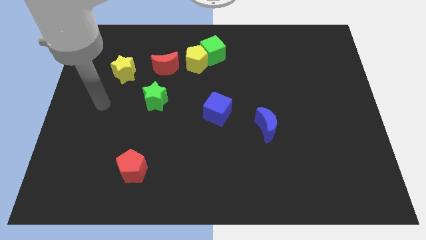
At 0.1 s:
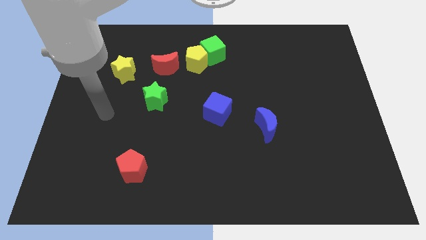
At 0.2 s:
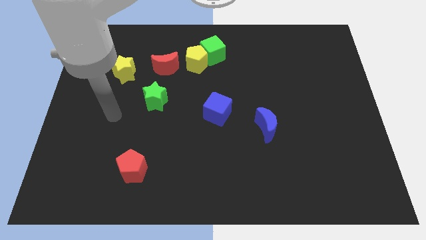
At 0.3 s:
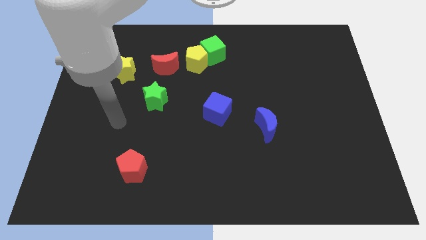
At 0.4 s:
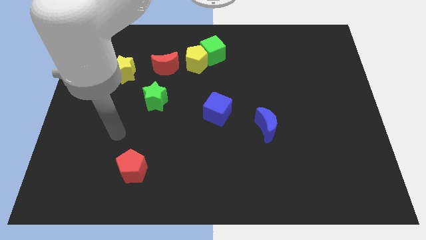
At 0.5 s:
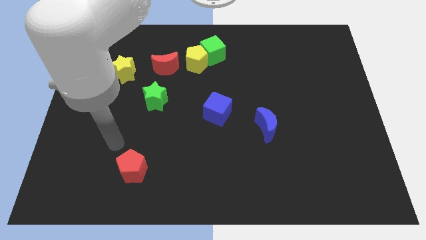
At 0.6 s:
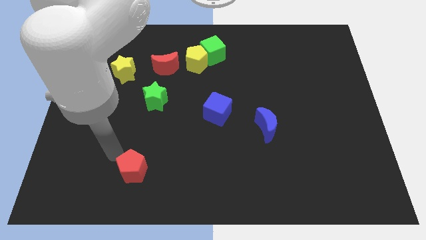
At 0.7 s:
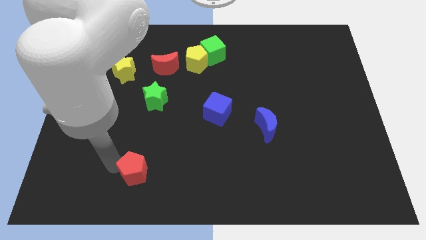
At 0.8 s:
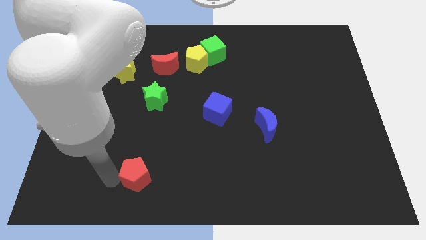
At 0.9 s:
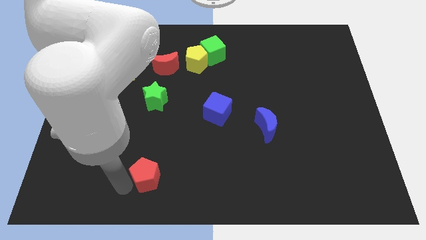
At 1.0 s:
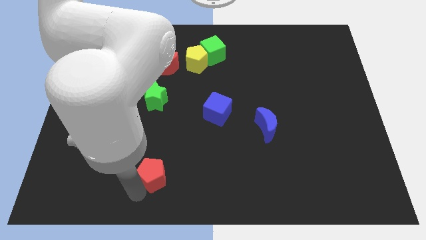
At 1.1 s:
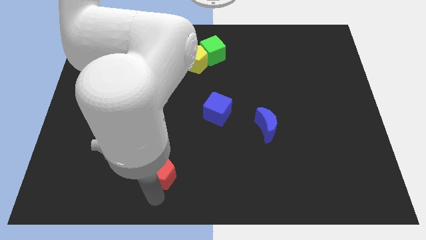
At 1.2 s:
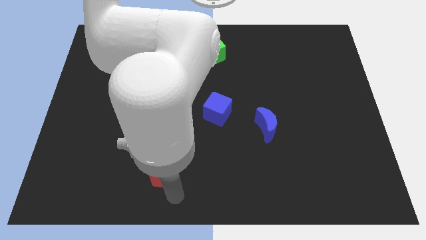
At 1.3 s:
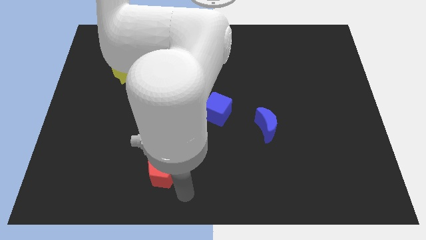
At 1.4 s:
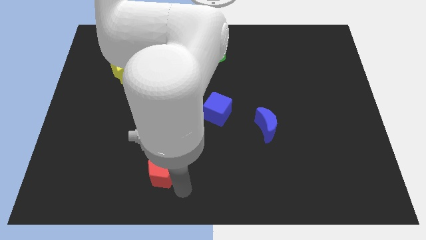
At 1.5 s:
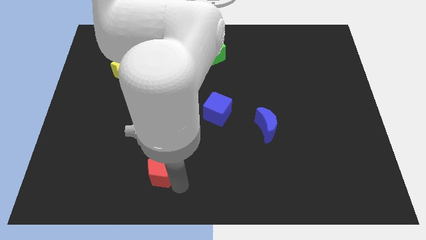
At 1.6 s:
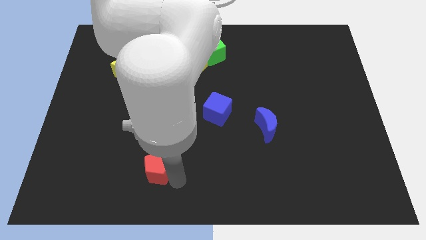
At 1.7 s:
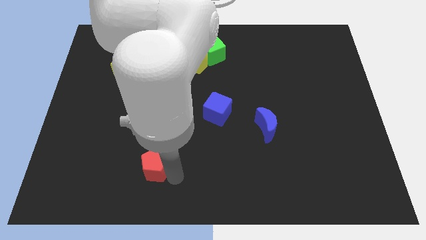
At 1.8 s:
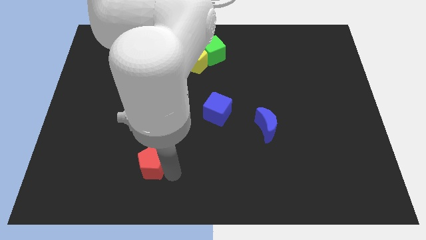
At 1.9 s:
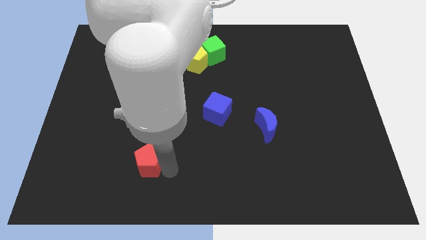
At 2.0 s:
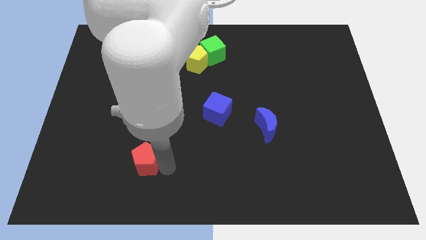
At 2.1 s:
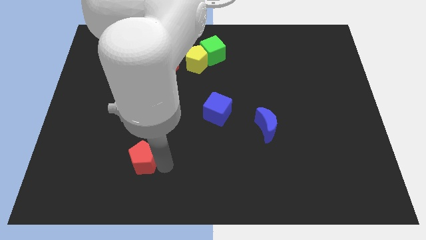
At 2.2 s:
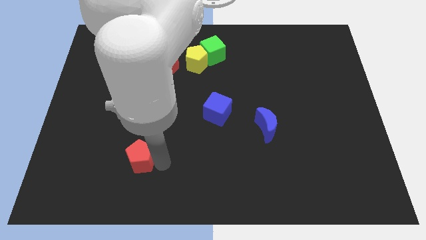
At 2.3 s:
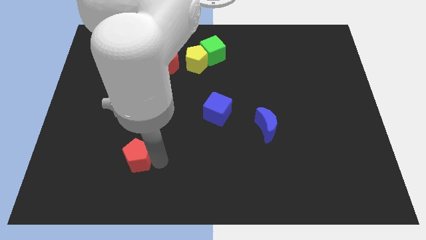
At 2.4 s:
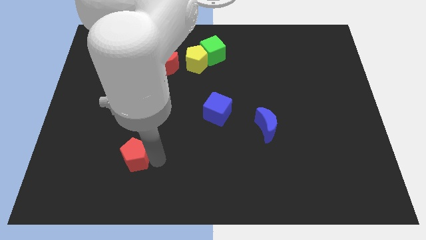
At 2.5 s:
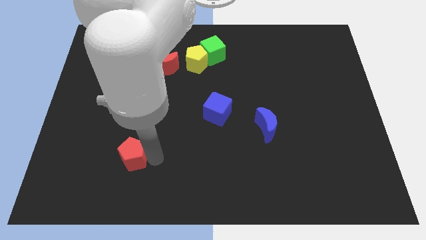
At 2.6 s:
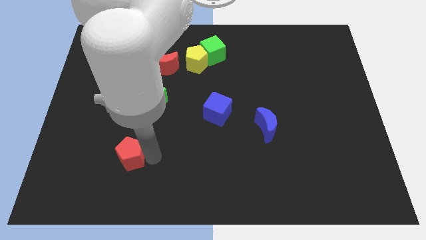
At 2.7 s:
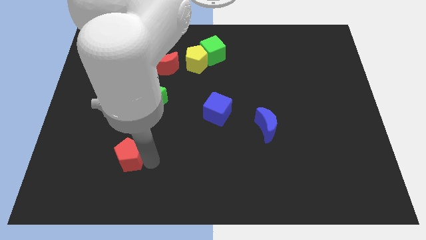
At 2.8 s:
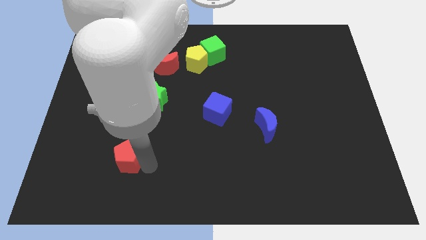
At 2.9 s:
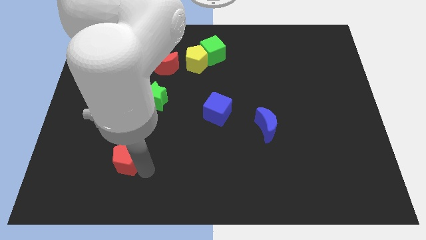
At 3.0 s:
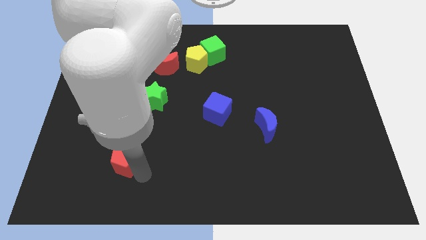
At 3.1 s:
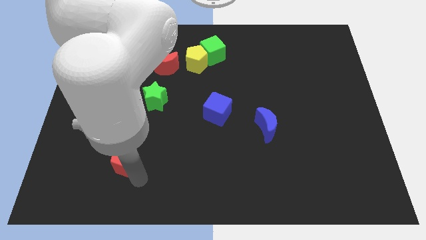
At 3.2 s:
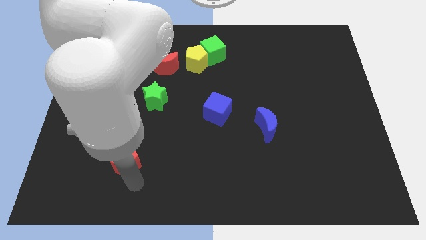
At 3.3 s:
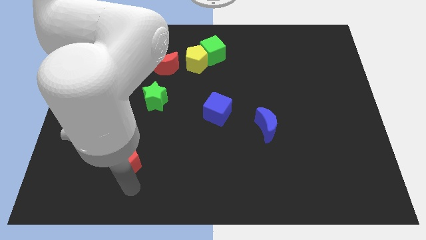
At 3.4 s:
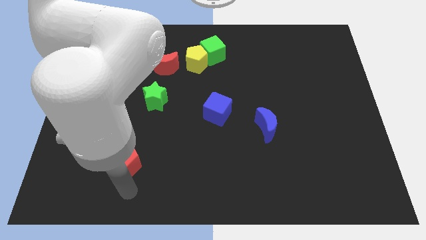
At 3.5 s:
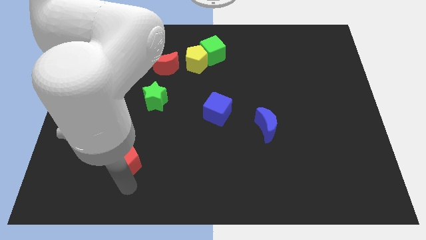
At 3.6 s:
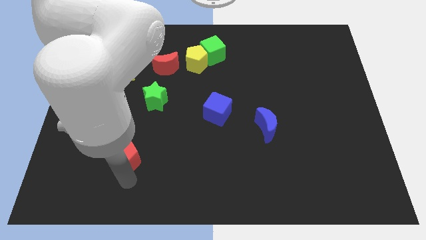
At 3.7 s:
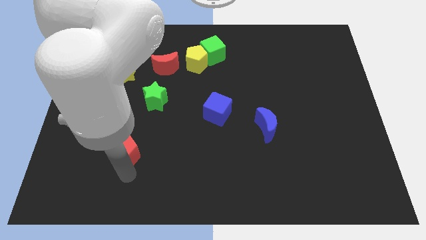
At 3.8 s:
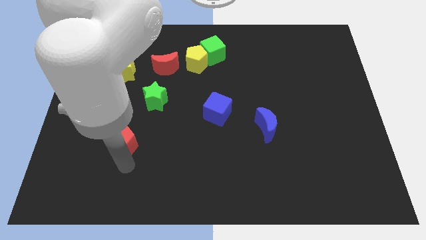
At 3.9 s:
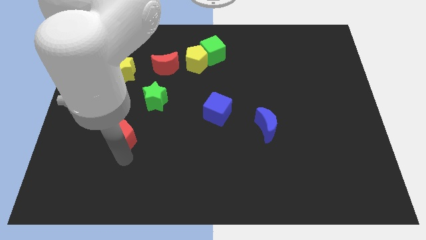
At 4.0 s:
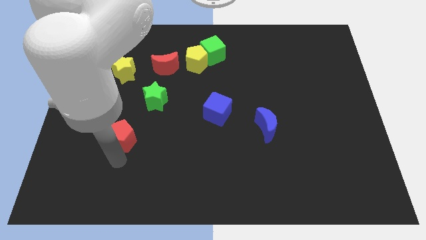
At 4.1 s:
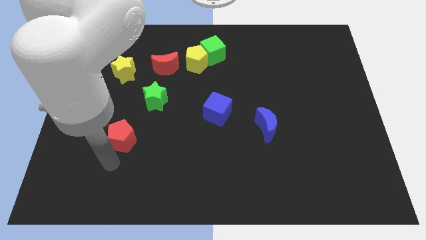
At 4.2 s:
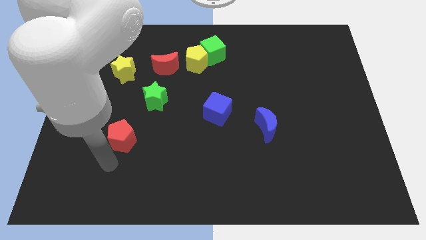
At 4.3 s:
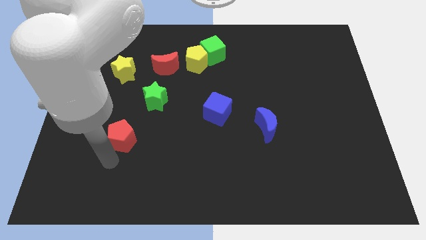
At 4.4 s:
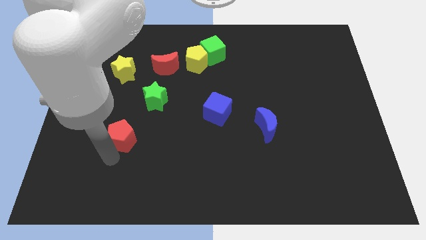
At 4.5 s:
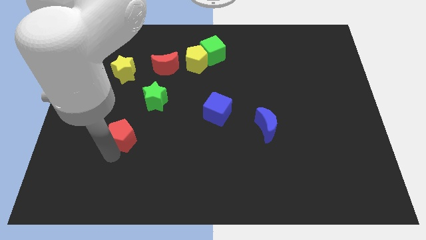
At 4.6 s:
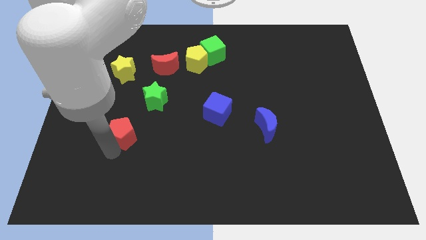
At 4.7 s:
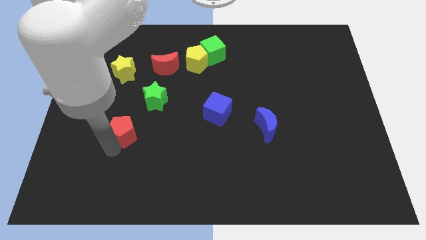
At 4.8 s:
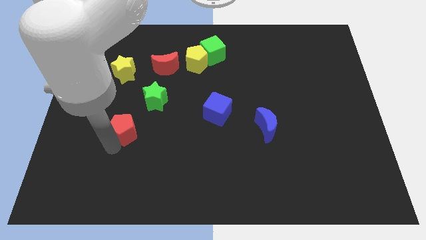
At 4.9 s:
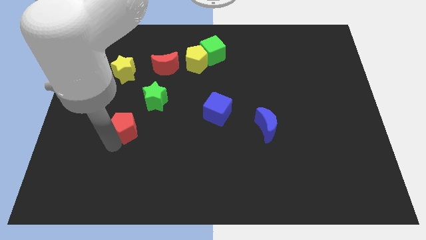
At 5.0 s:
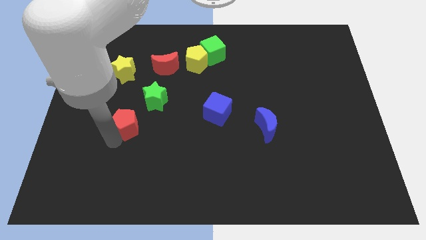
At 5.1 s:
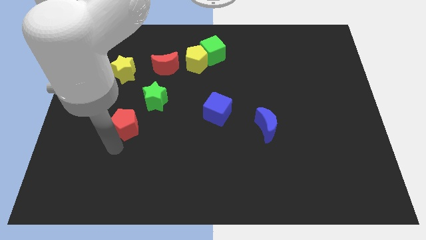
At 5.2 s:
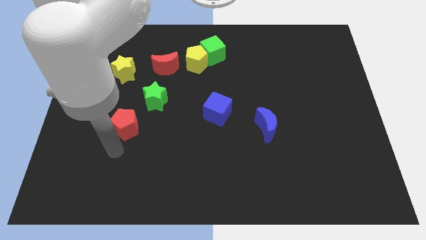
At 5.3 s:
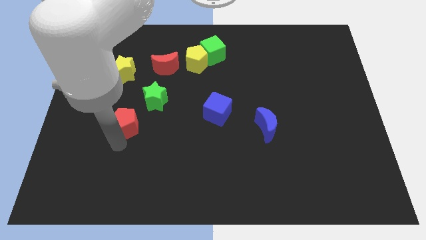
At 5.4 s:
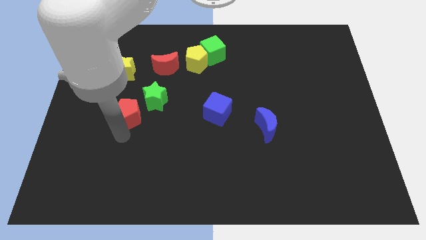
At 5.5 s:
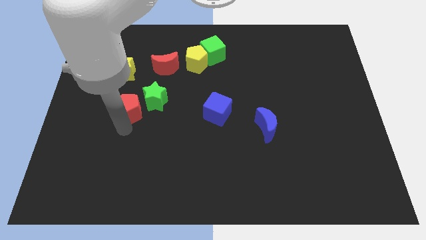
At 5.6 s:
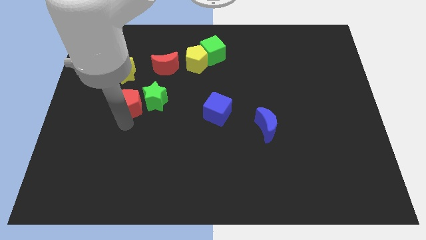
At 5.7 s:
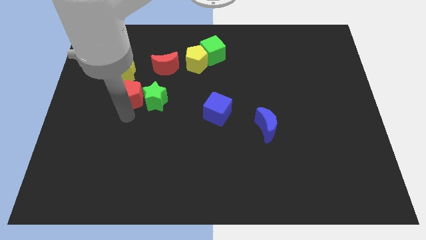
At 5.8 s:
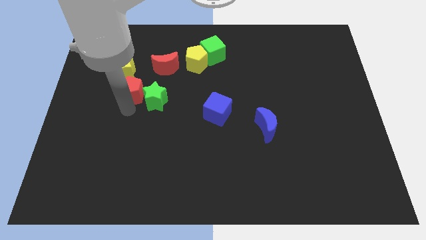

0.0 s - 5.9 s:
push the red pentagon upwards

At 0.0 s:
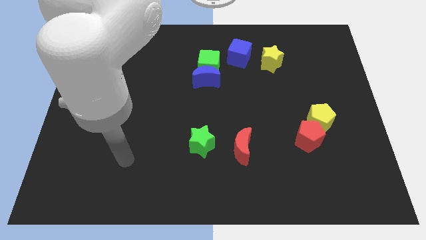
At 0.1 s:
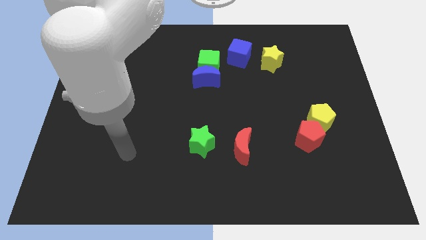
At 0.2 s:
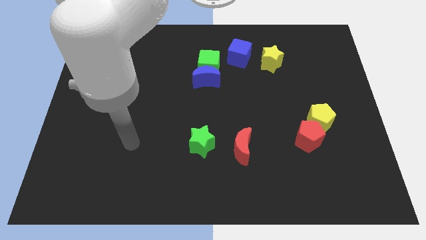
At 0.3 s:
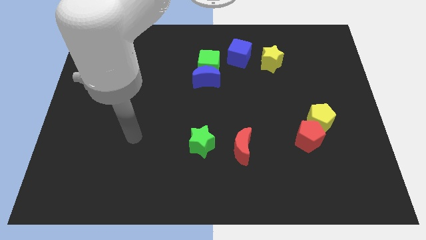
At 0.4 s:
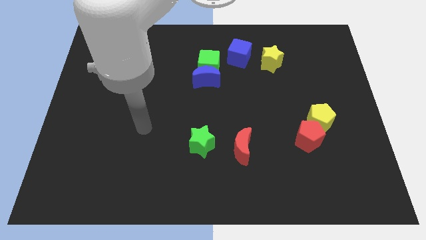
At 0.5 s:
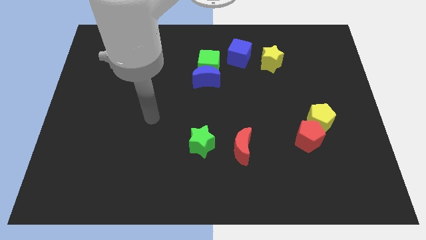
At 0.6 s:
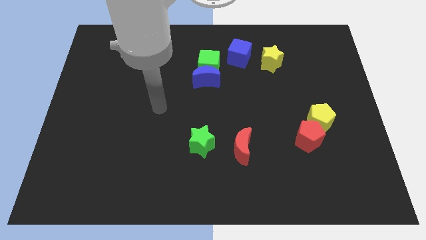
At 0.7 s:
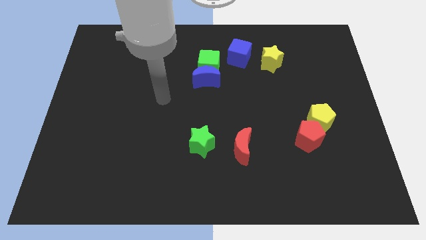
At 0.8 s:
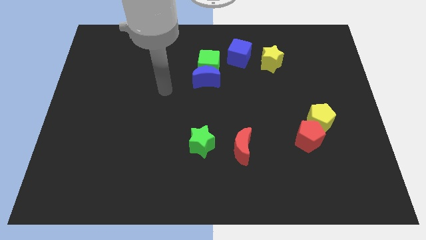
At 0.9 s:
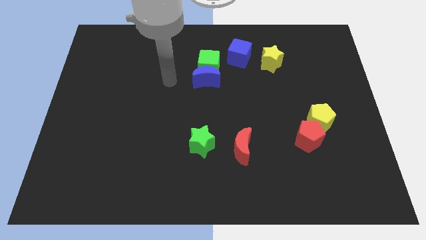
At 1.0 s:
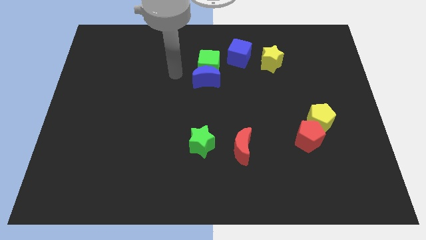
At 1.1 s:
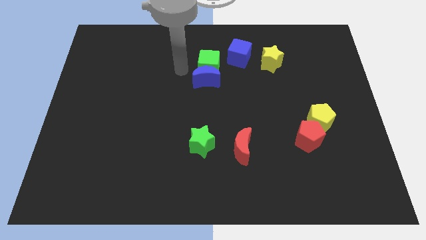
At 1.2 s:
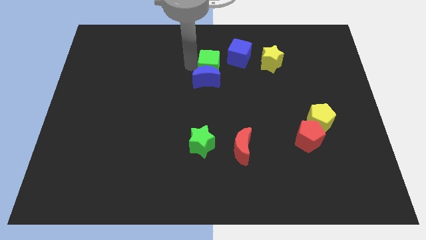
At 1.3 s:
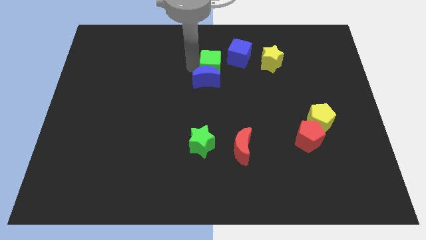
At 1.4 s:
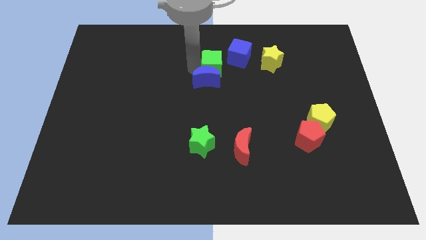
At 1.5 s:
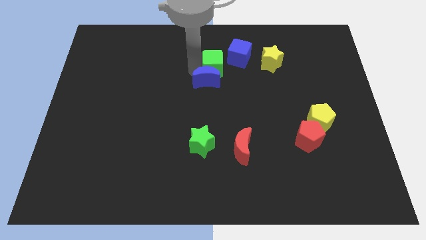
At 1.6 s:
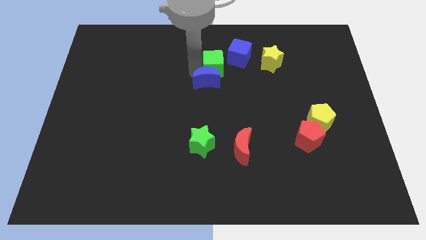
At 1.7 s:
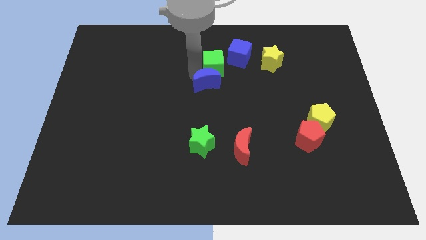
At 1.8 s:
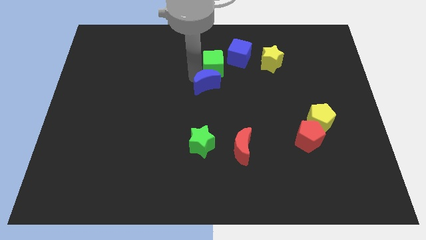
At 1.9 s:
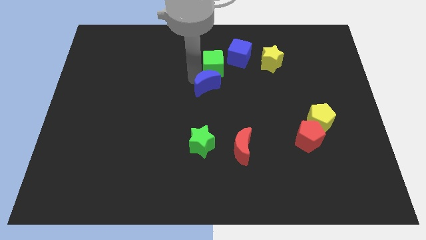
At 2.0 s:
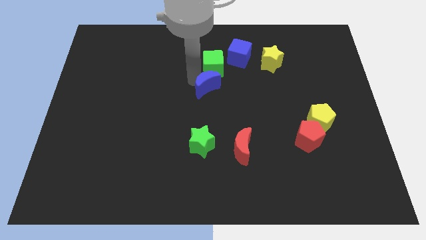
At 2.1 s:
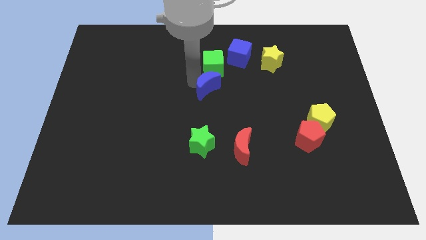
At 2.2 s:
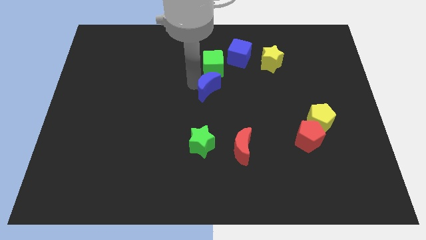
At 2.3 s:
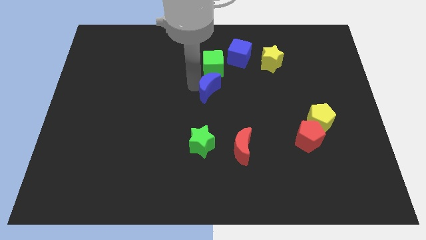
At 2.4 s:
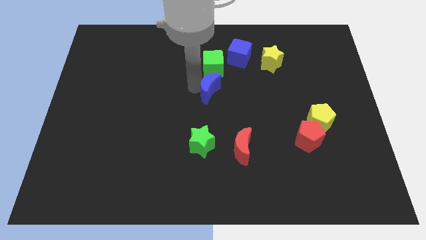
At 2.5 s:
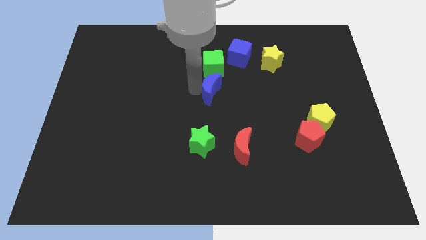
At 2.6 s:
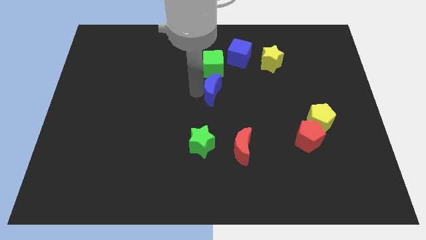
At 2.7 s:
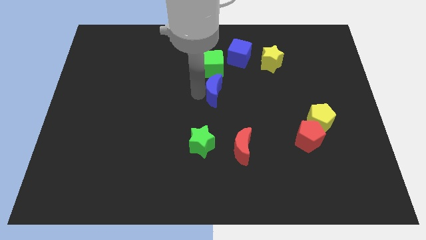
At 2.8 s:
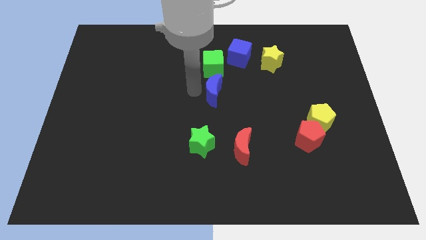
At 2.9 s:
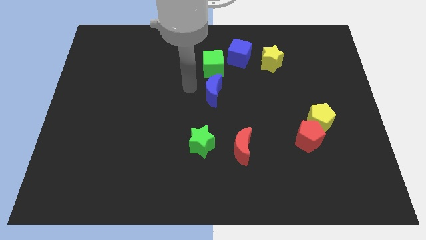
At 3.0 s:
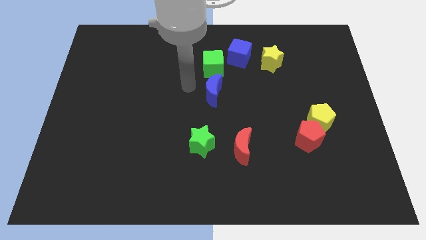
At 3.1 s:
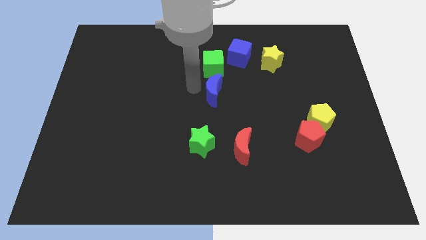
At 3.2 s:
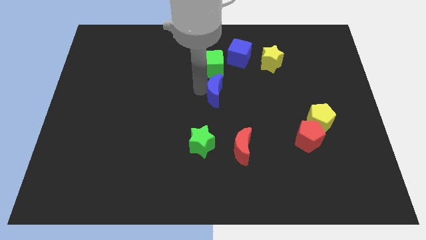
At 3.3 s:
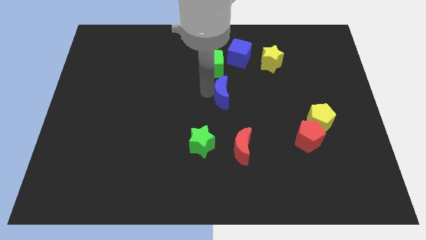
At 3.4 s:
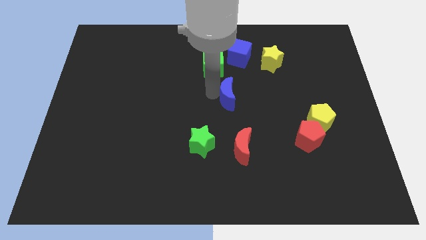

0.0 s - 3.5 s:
slightly push the blue moon diagonally downwards and to the right
